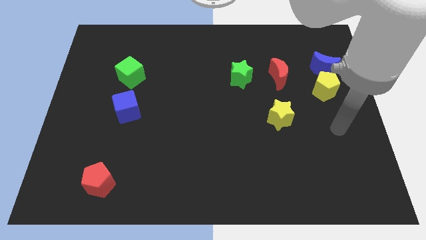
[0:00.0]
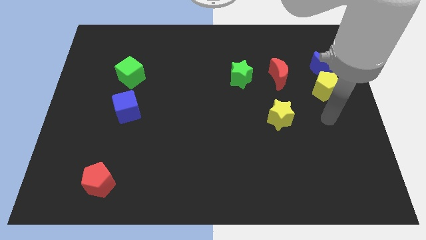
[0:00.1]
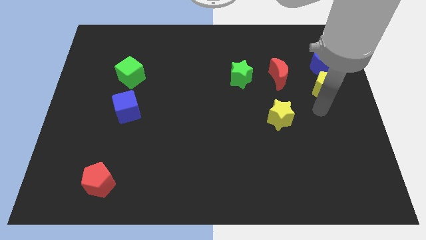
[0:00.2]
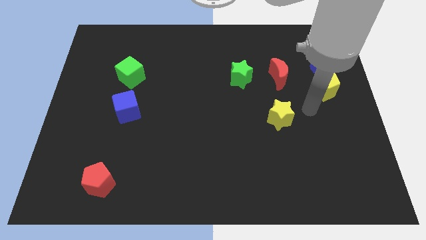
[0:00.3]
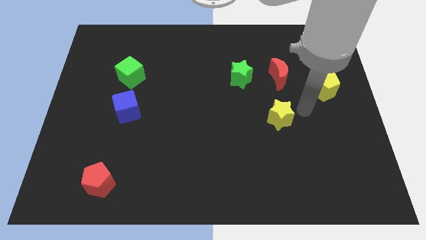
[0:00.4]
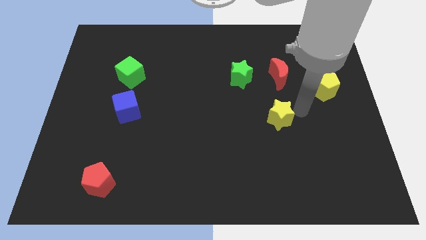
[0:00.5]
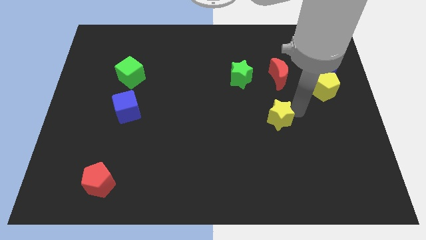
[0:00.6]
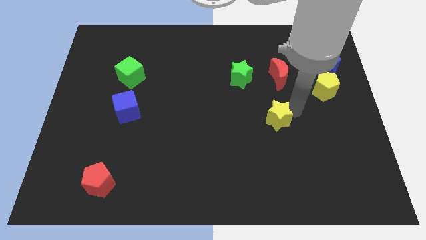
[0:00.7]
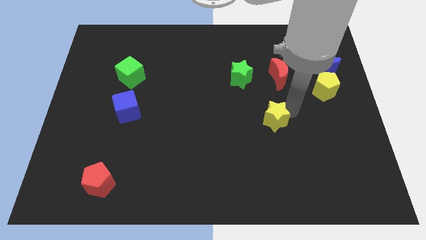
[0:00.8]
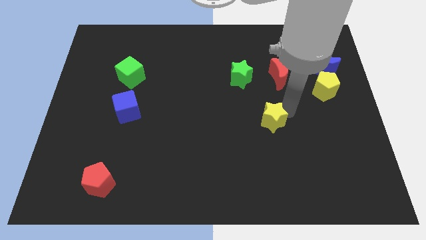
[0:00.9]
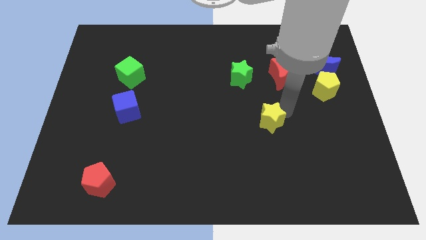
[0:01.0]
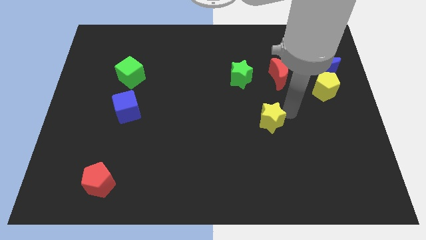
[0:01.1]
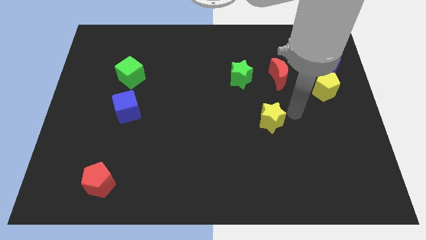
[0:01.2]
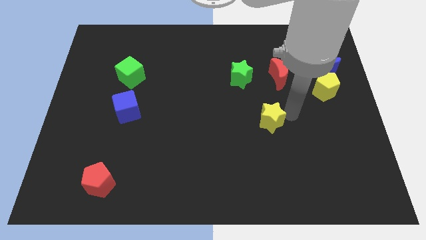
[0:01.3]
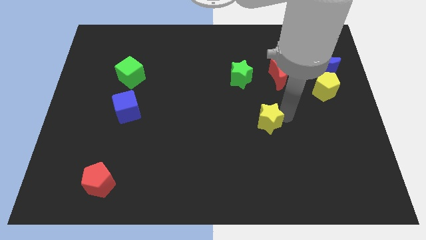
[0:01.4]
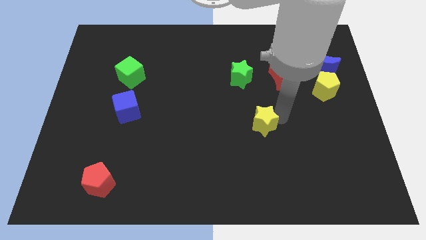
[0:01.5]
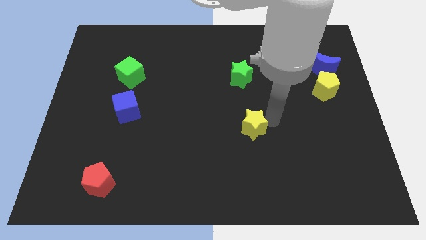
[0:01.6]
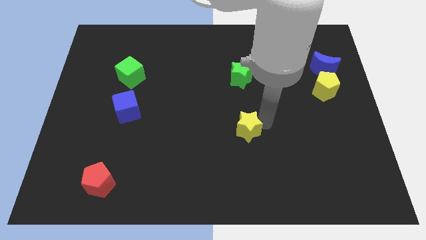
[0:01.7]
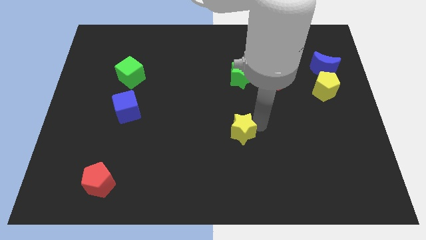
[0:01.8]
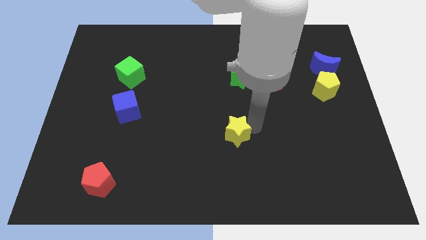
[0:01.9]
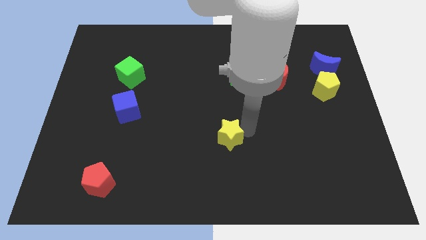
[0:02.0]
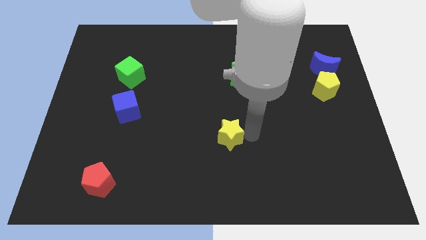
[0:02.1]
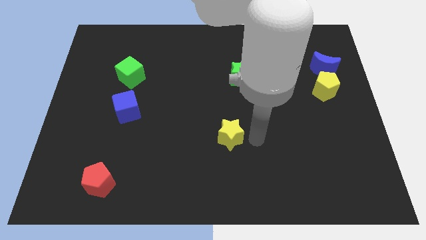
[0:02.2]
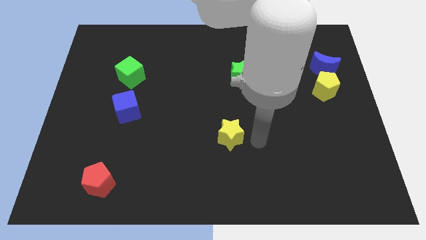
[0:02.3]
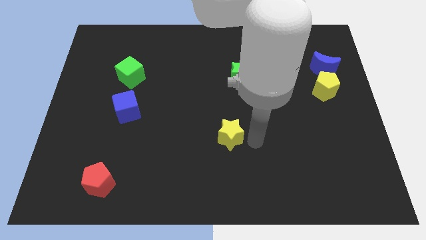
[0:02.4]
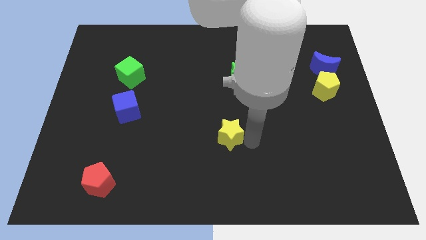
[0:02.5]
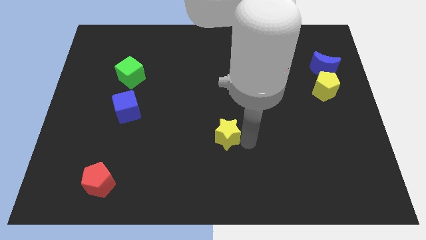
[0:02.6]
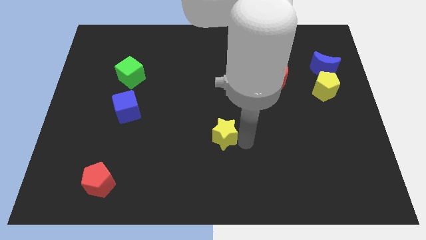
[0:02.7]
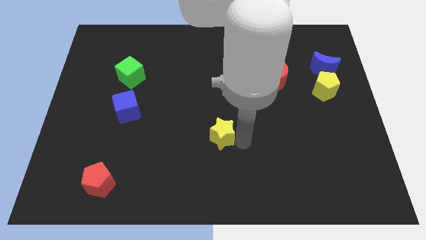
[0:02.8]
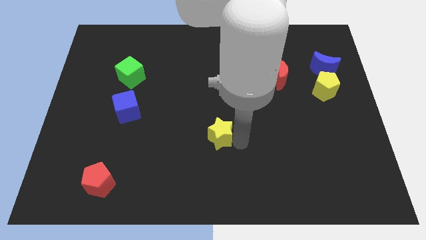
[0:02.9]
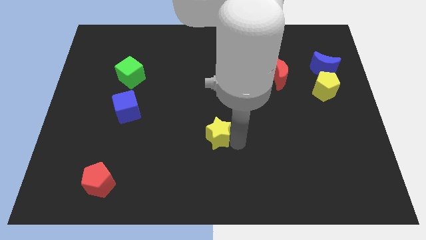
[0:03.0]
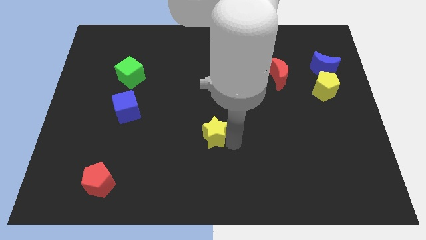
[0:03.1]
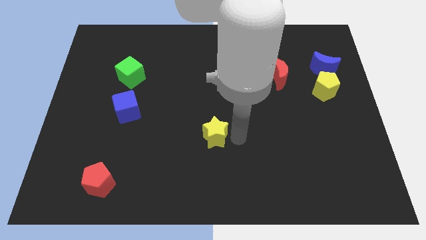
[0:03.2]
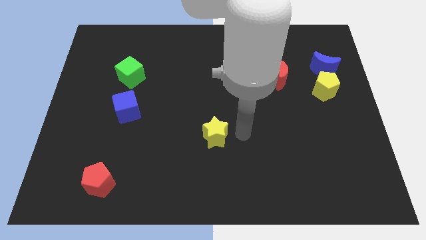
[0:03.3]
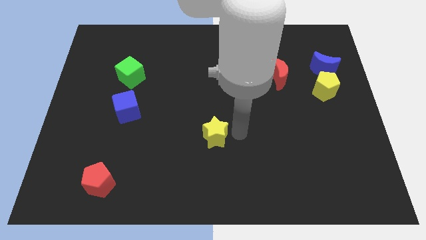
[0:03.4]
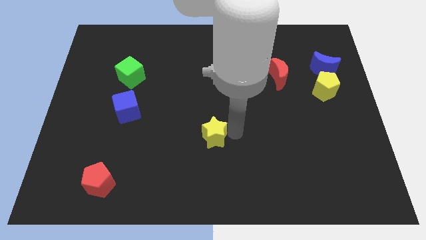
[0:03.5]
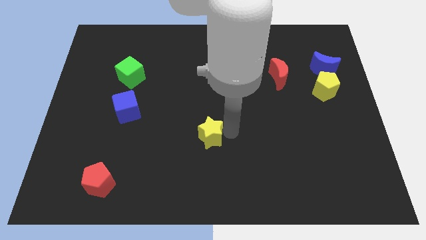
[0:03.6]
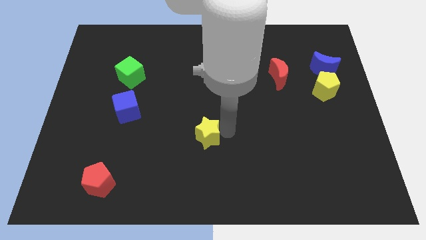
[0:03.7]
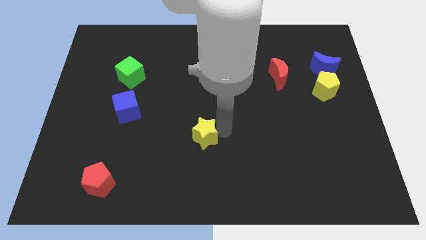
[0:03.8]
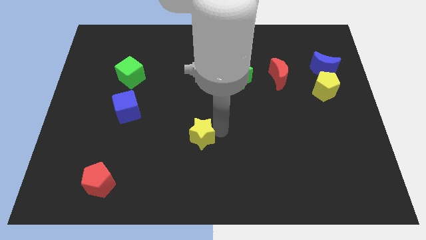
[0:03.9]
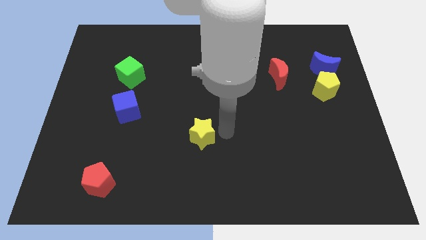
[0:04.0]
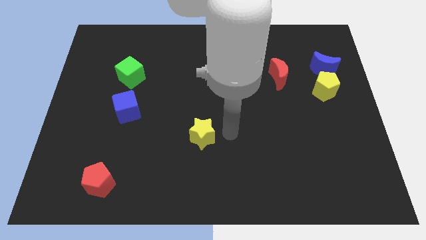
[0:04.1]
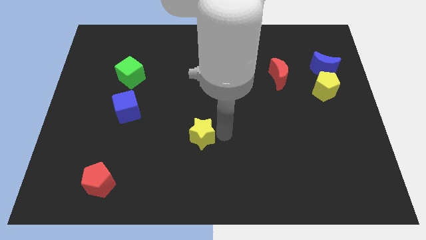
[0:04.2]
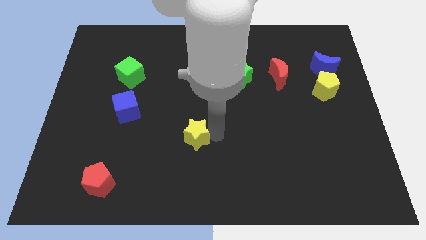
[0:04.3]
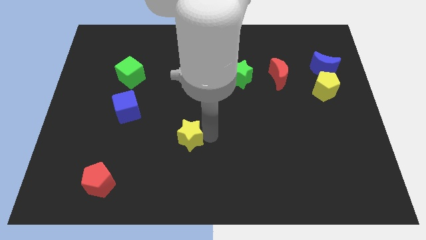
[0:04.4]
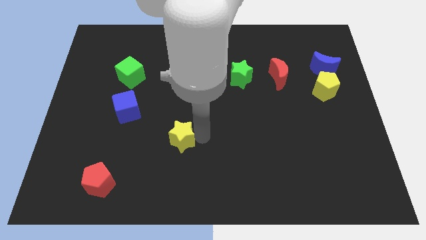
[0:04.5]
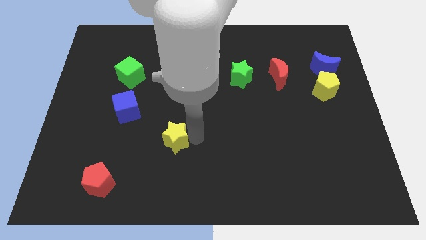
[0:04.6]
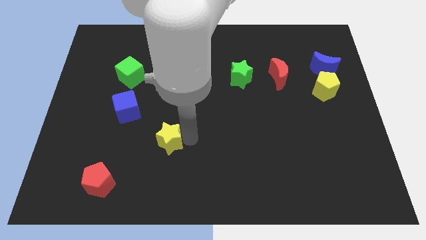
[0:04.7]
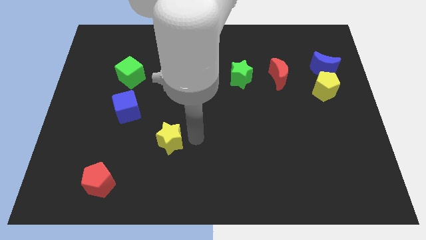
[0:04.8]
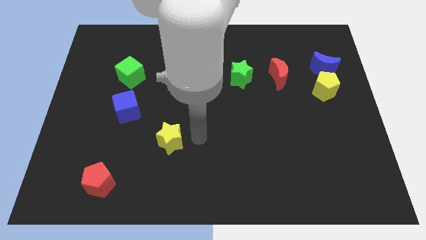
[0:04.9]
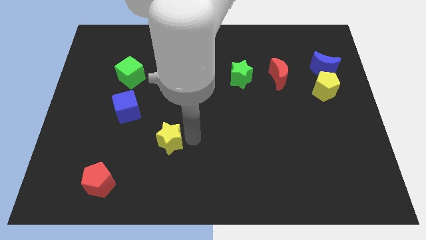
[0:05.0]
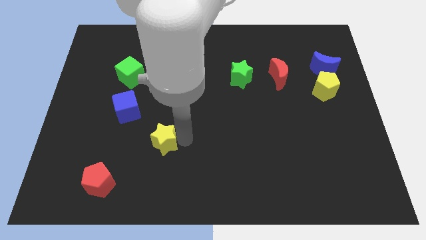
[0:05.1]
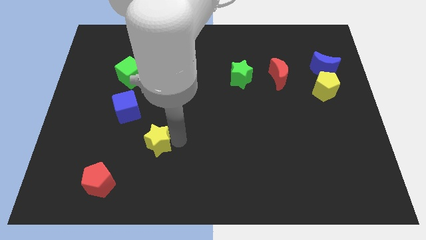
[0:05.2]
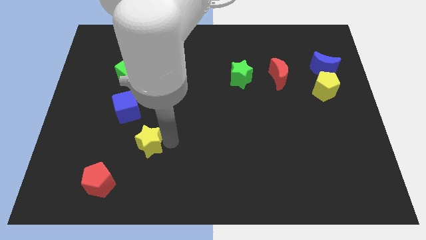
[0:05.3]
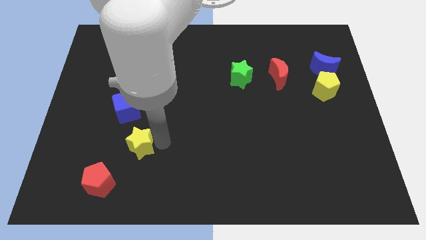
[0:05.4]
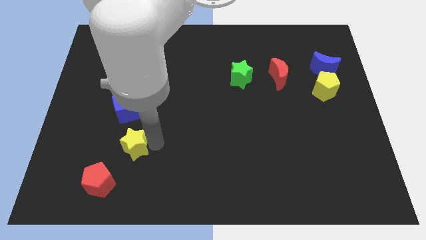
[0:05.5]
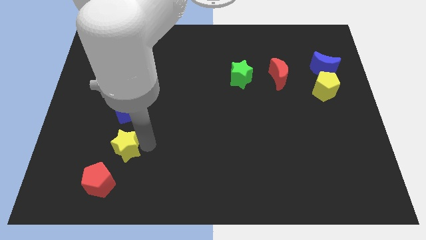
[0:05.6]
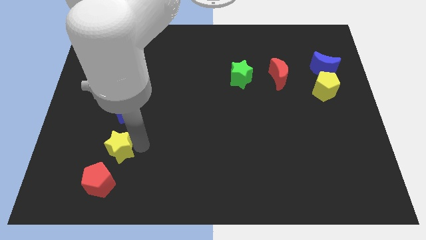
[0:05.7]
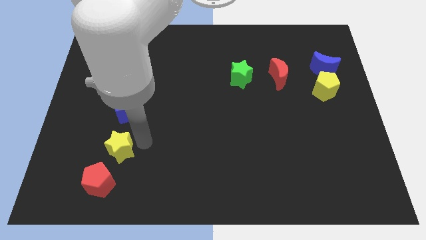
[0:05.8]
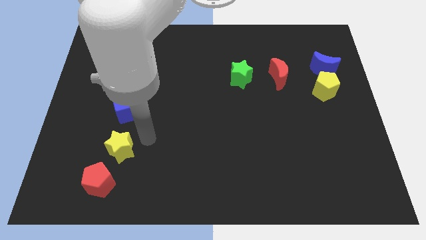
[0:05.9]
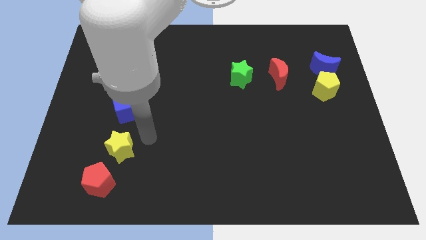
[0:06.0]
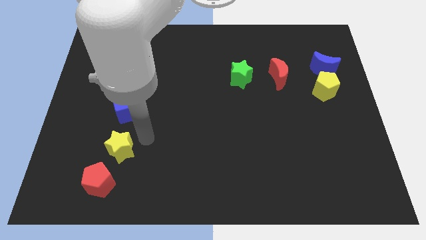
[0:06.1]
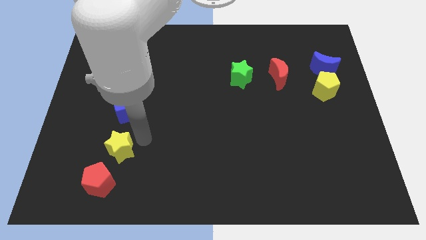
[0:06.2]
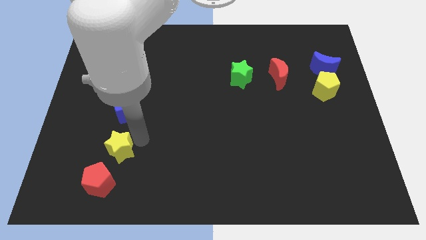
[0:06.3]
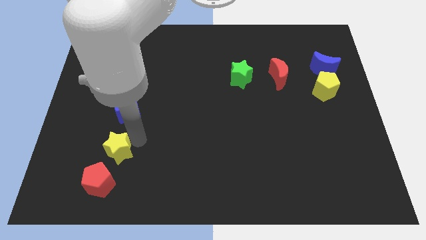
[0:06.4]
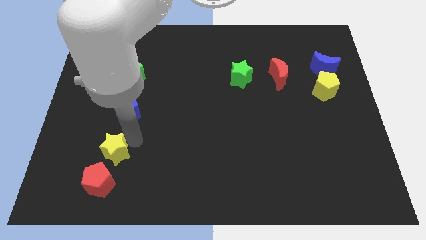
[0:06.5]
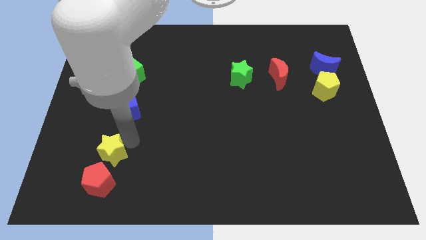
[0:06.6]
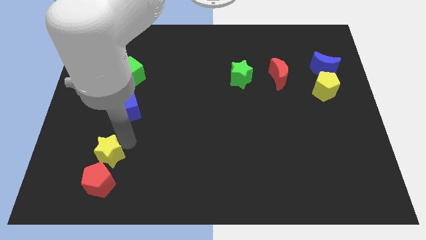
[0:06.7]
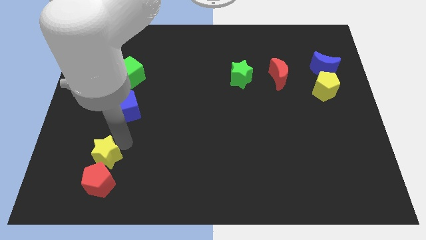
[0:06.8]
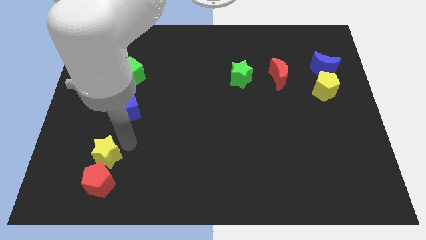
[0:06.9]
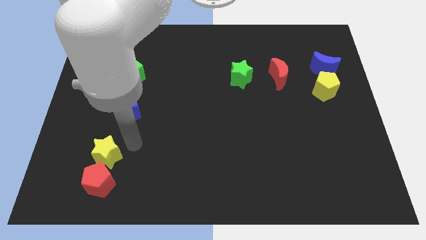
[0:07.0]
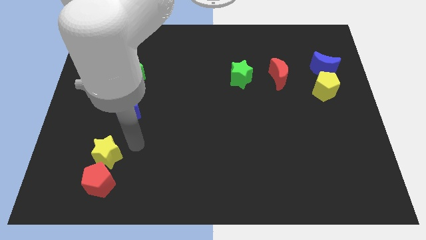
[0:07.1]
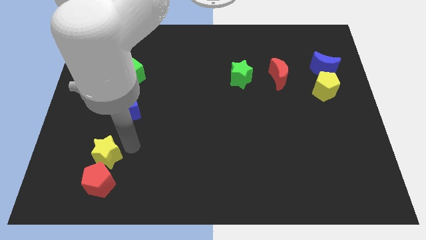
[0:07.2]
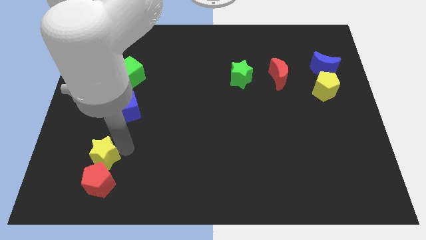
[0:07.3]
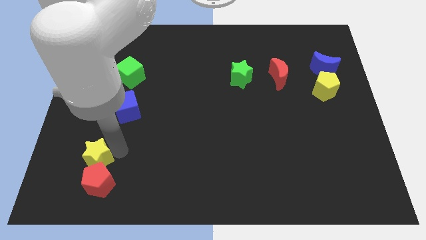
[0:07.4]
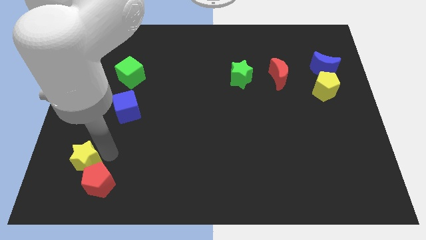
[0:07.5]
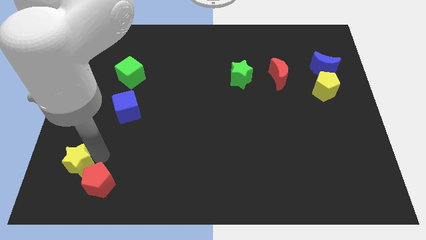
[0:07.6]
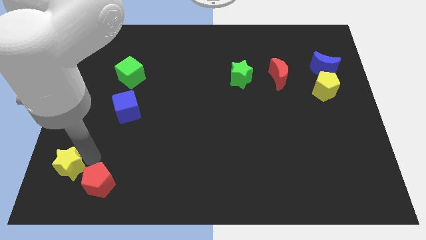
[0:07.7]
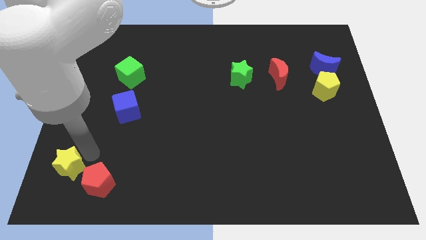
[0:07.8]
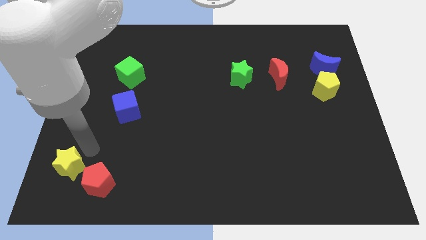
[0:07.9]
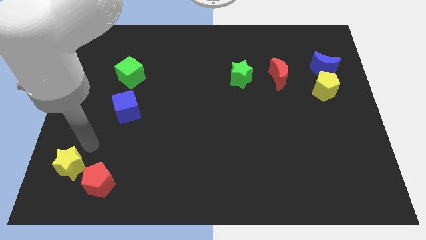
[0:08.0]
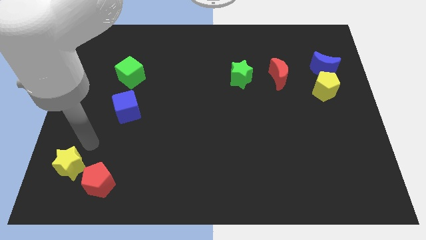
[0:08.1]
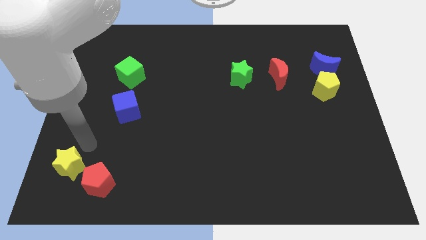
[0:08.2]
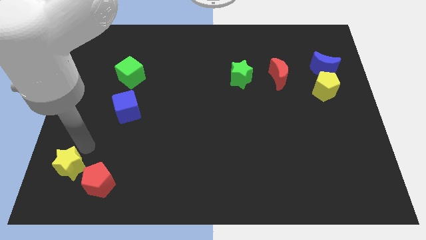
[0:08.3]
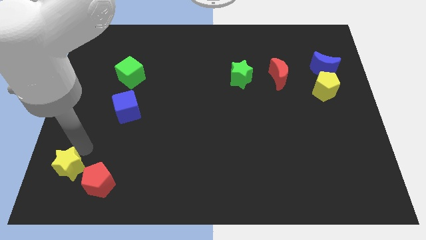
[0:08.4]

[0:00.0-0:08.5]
slide the yellow star to the lower left corner
